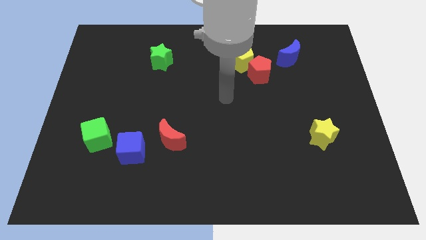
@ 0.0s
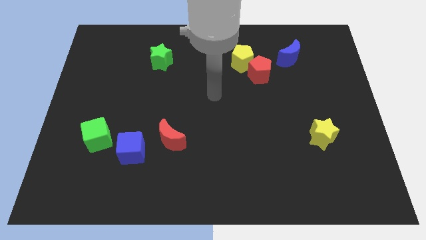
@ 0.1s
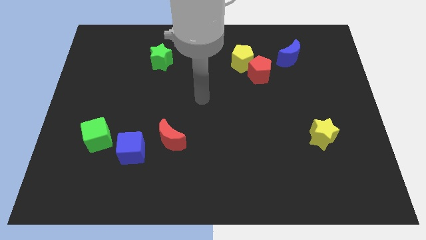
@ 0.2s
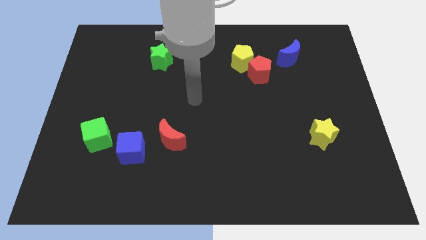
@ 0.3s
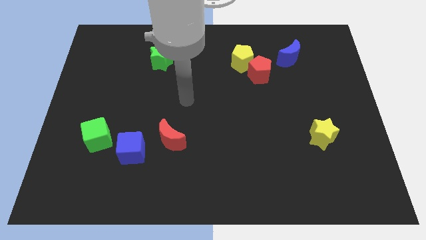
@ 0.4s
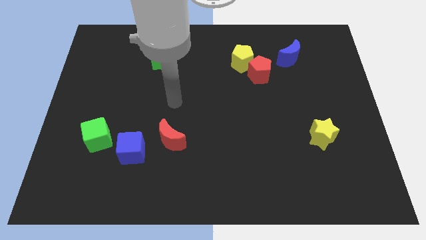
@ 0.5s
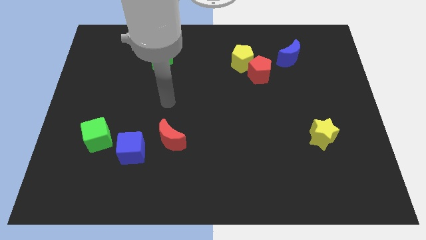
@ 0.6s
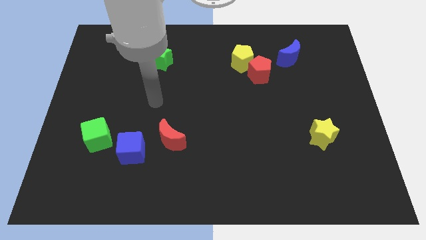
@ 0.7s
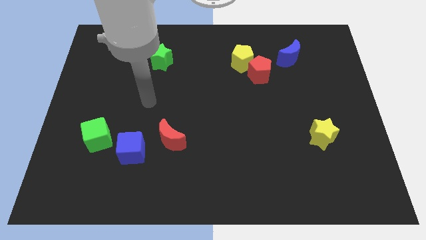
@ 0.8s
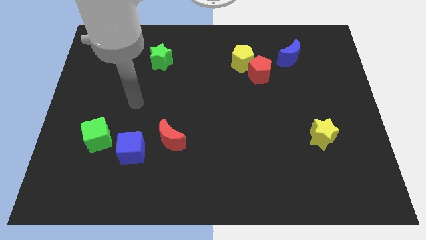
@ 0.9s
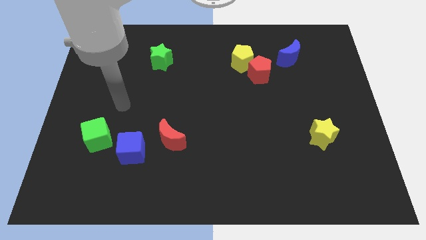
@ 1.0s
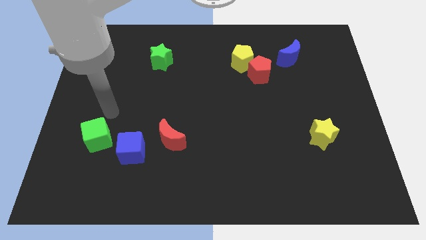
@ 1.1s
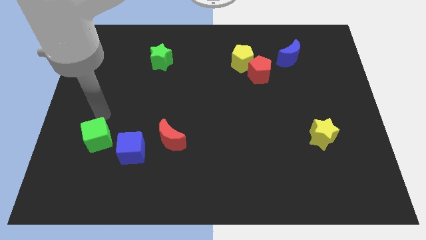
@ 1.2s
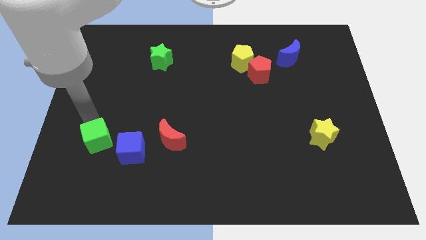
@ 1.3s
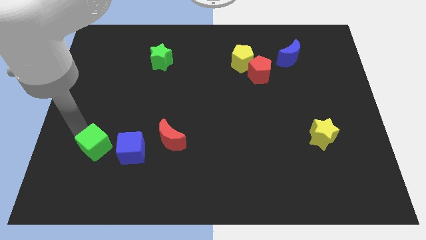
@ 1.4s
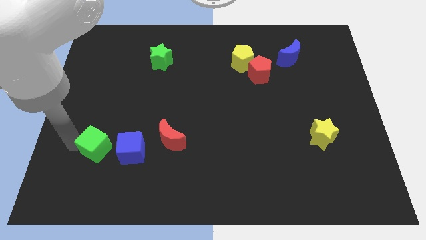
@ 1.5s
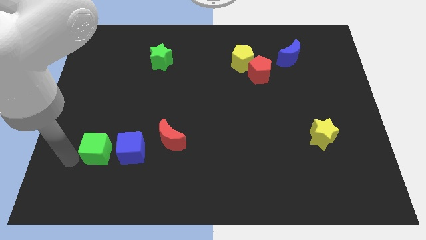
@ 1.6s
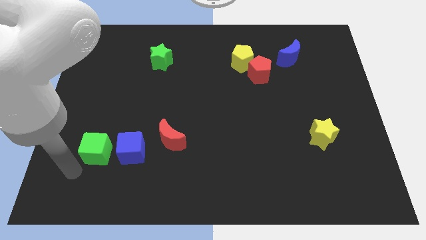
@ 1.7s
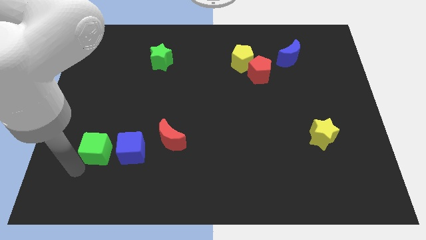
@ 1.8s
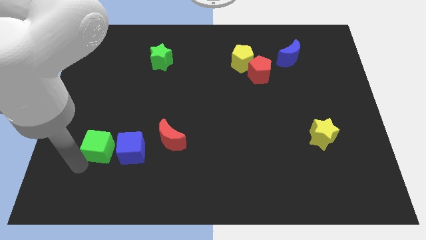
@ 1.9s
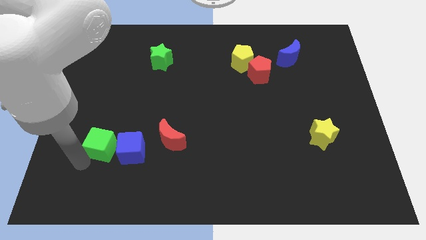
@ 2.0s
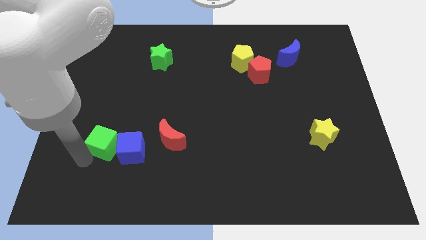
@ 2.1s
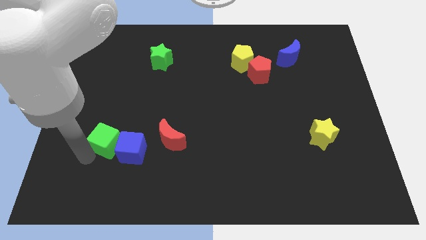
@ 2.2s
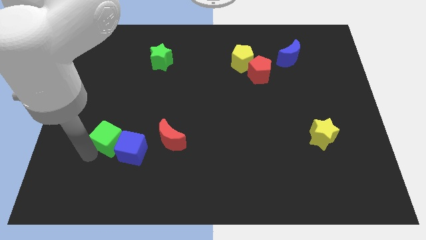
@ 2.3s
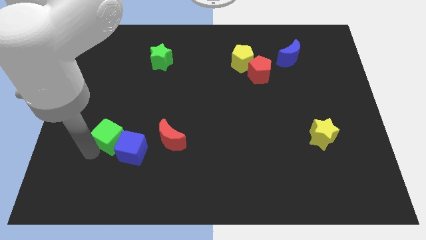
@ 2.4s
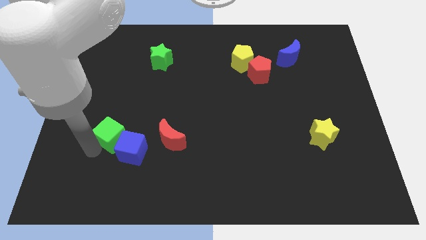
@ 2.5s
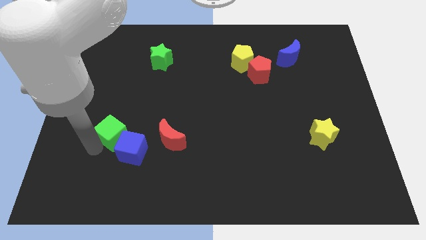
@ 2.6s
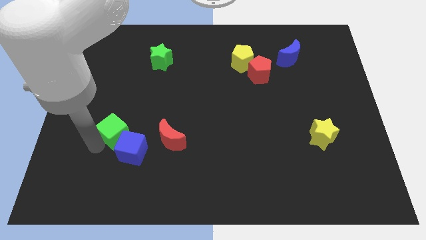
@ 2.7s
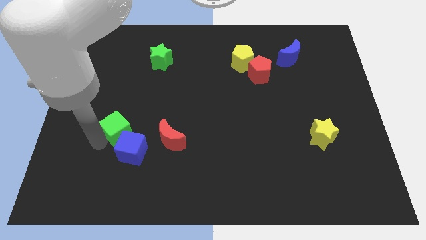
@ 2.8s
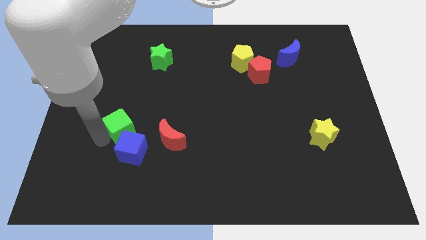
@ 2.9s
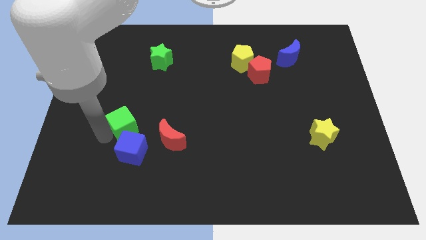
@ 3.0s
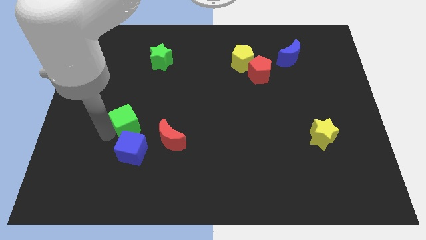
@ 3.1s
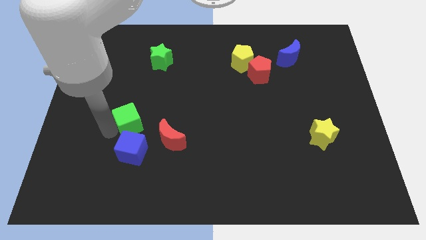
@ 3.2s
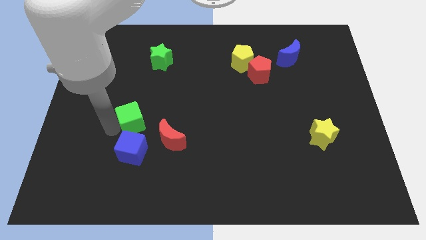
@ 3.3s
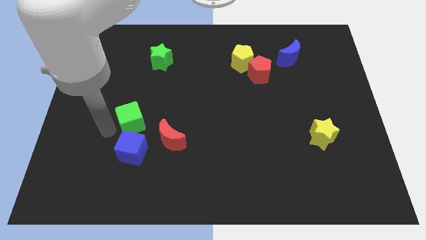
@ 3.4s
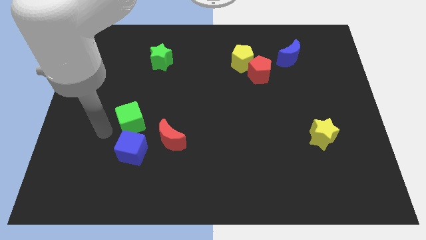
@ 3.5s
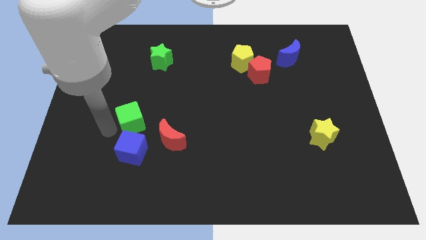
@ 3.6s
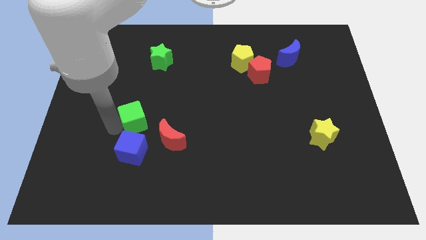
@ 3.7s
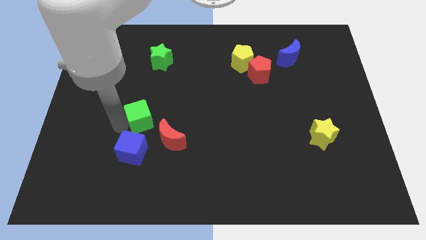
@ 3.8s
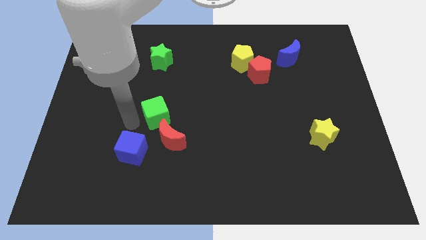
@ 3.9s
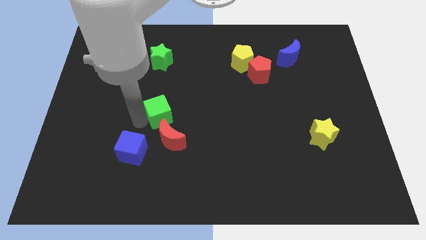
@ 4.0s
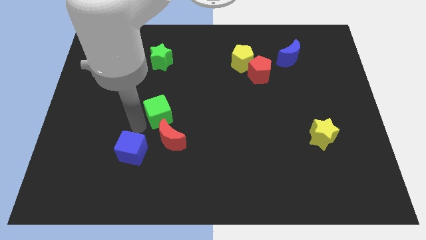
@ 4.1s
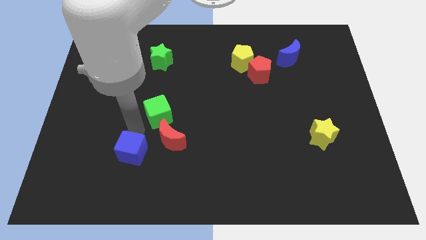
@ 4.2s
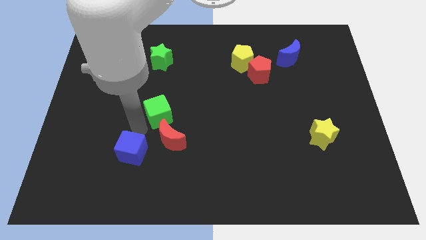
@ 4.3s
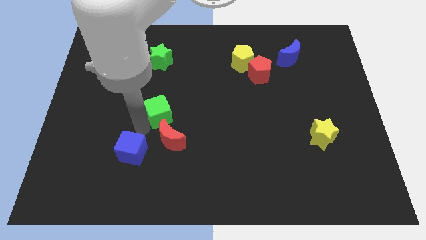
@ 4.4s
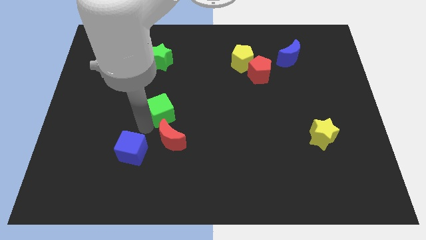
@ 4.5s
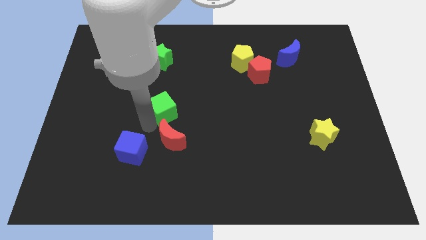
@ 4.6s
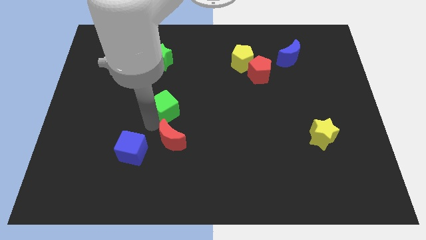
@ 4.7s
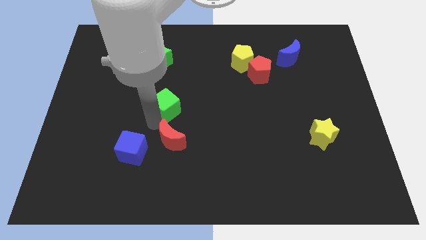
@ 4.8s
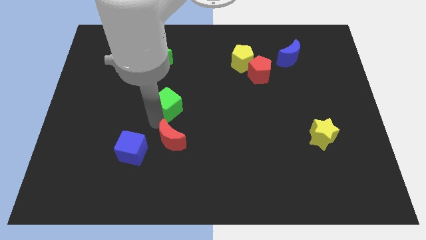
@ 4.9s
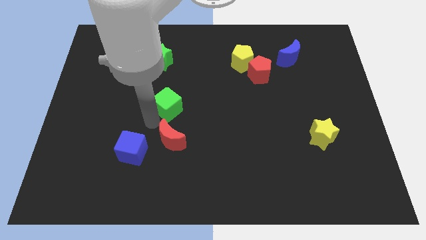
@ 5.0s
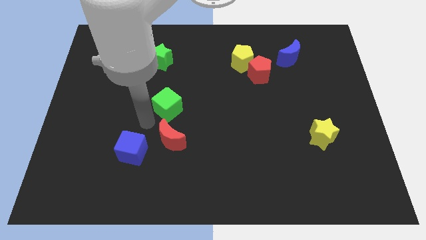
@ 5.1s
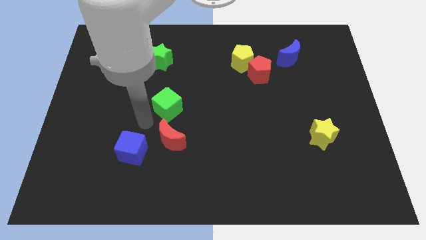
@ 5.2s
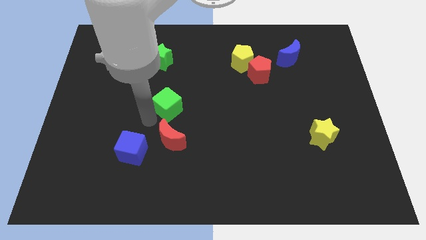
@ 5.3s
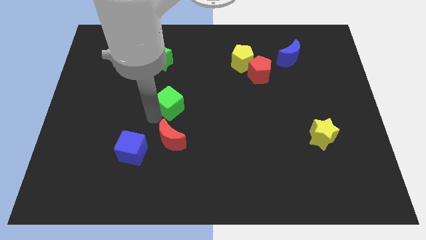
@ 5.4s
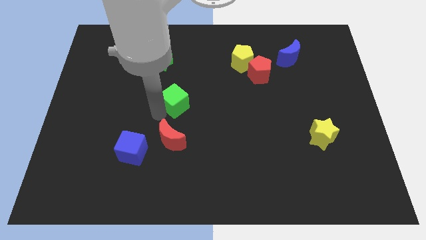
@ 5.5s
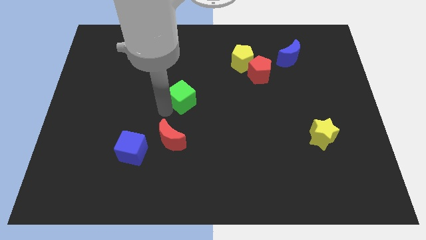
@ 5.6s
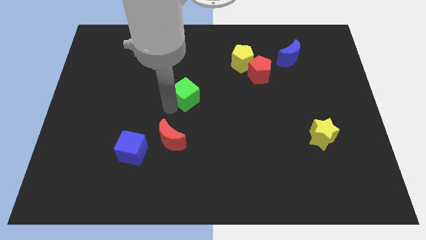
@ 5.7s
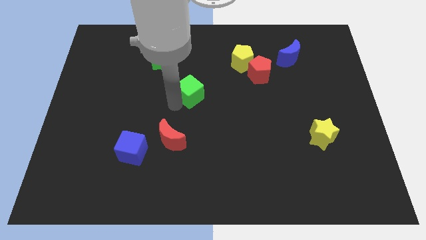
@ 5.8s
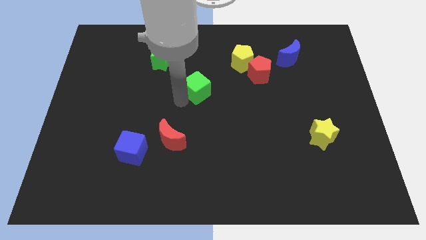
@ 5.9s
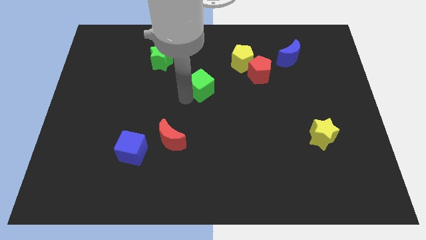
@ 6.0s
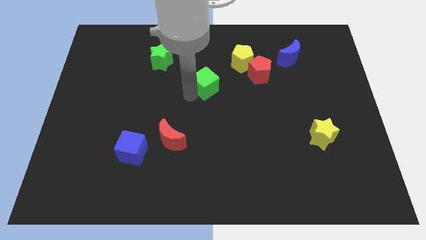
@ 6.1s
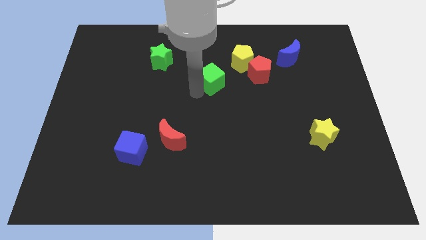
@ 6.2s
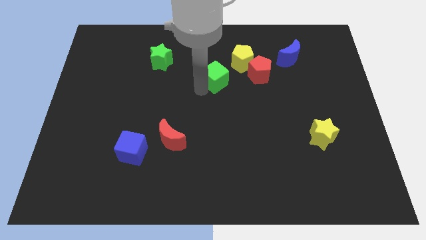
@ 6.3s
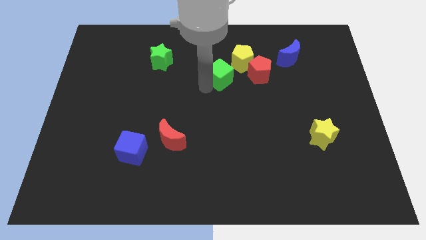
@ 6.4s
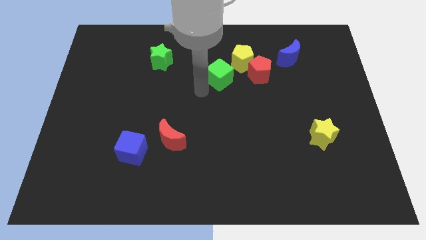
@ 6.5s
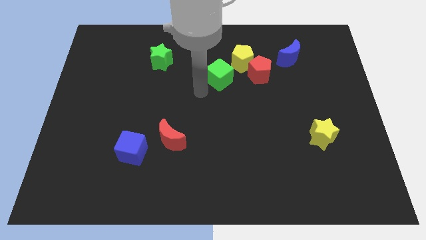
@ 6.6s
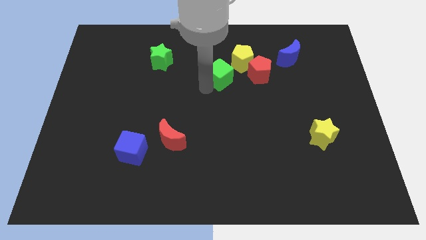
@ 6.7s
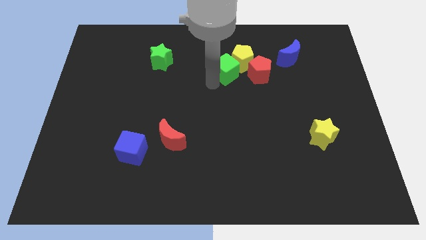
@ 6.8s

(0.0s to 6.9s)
slide the green cube towards the yellow pentagon

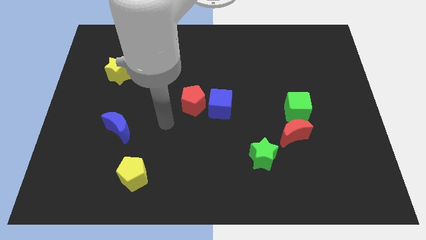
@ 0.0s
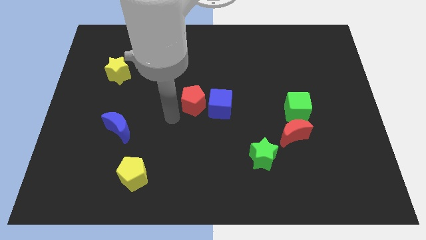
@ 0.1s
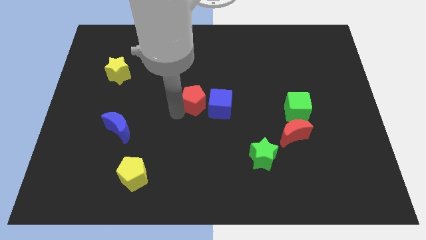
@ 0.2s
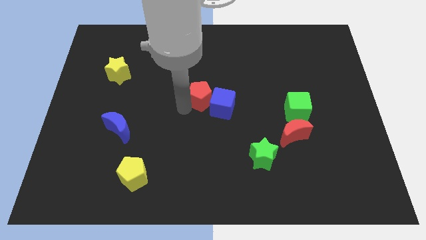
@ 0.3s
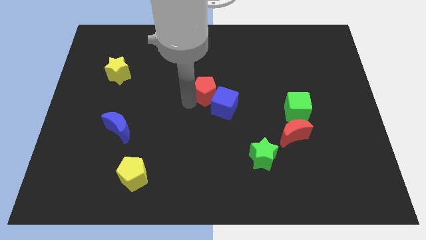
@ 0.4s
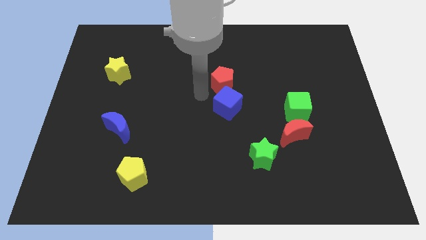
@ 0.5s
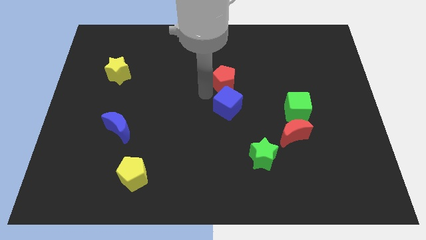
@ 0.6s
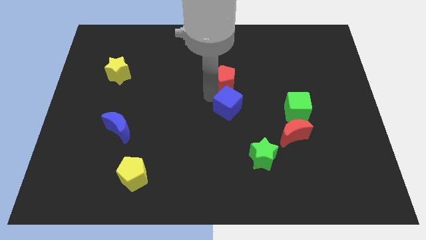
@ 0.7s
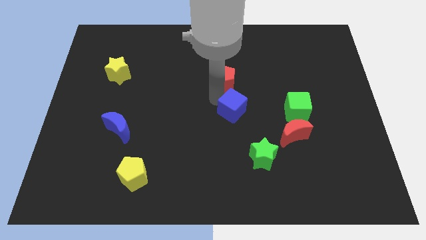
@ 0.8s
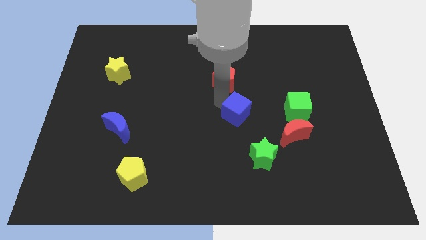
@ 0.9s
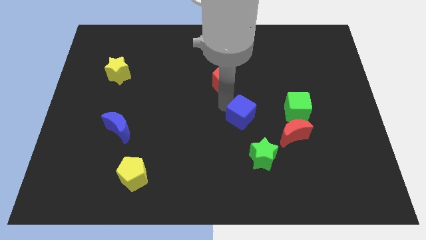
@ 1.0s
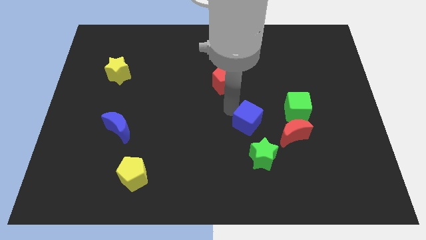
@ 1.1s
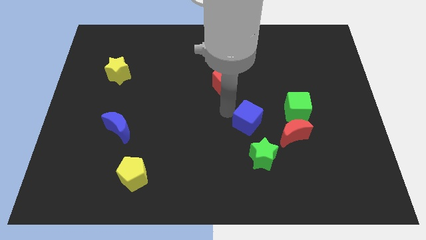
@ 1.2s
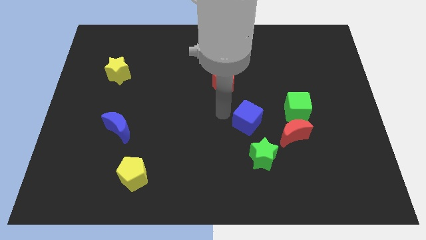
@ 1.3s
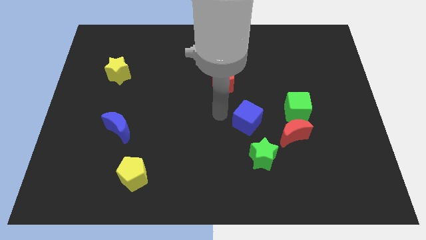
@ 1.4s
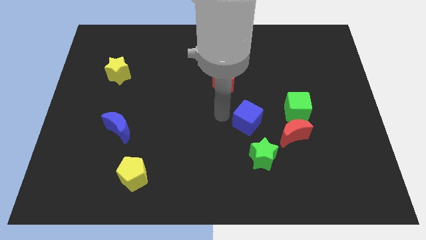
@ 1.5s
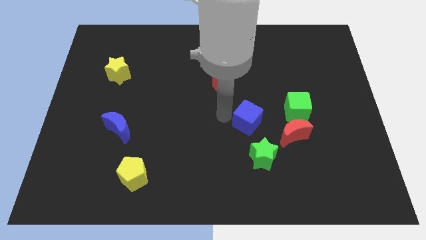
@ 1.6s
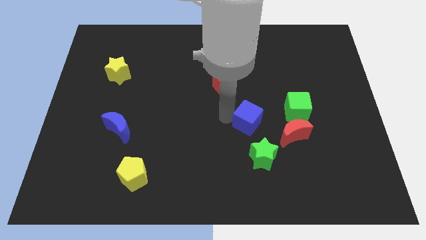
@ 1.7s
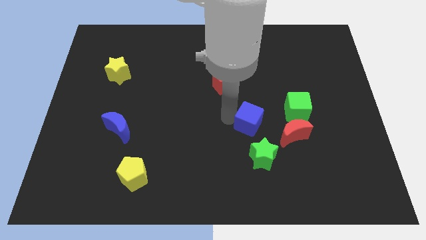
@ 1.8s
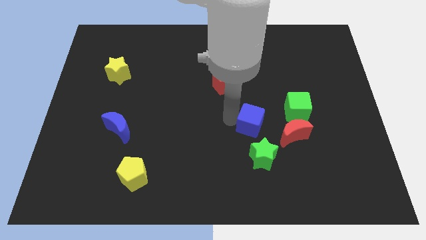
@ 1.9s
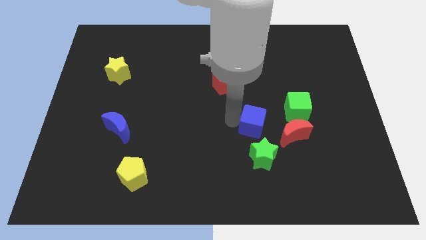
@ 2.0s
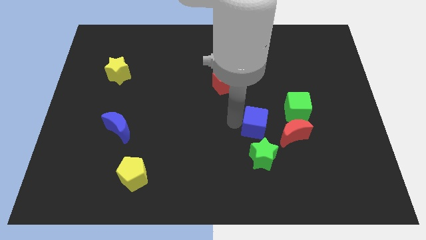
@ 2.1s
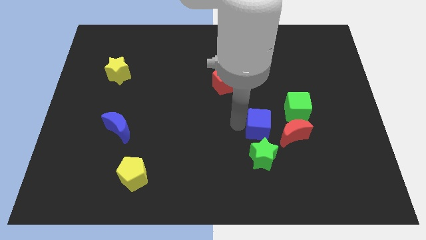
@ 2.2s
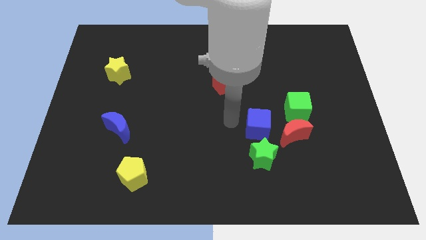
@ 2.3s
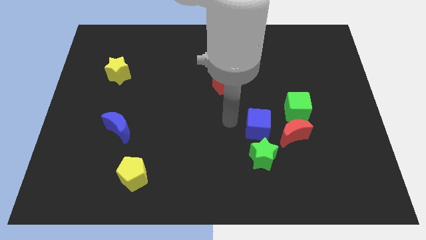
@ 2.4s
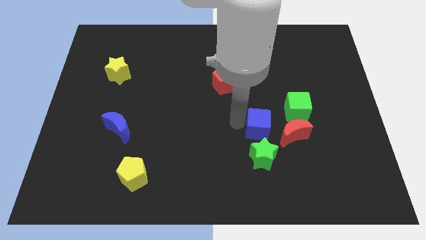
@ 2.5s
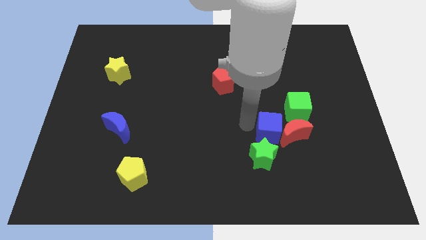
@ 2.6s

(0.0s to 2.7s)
slide the blue cube close to the red moon
